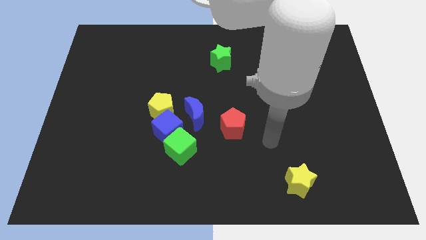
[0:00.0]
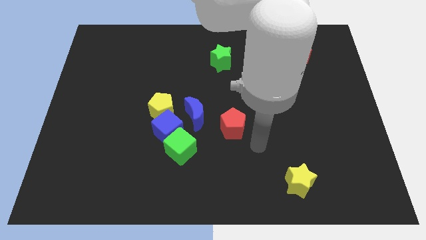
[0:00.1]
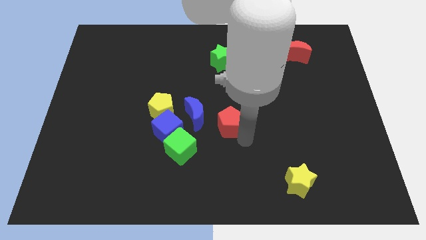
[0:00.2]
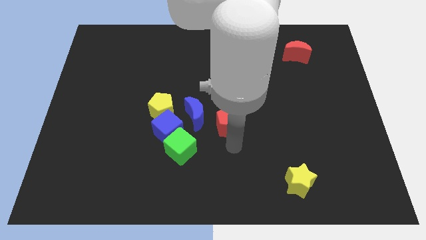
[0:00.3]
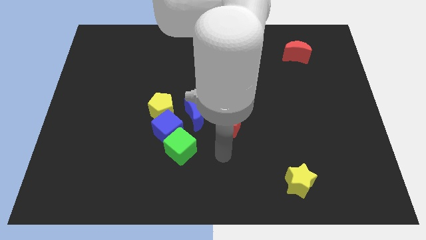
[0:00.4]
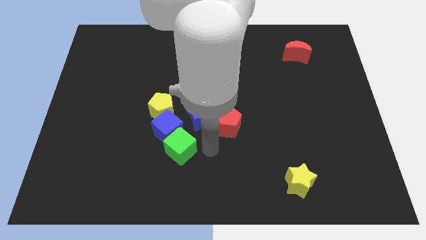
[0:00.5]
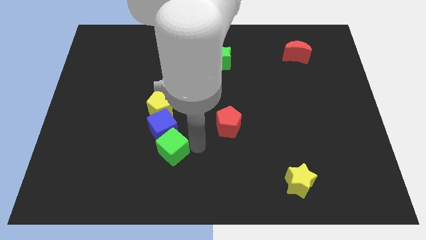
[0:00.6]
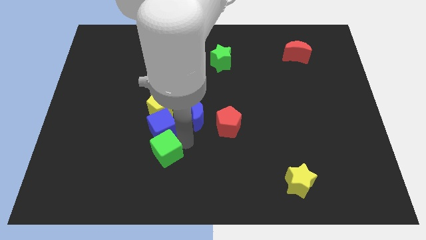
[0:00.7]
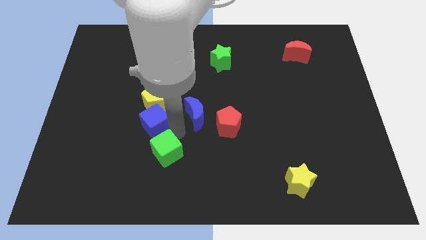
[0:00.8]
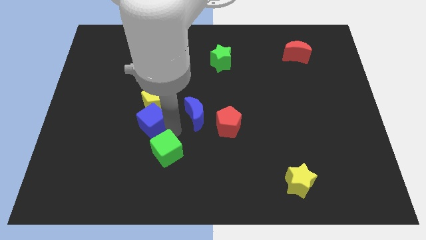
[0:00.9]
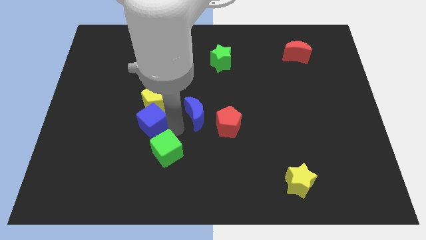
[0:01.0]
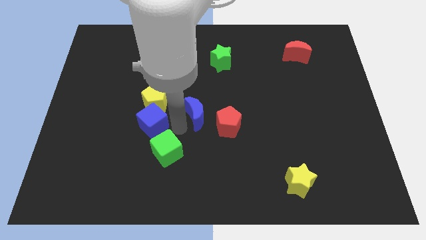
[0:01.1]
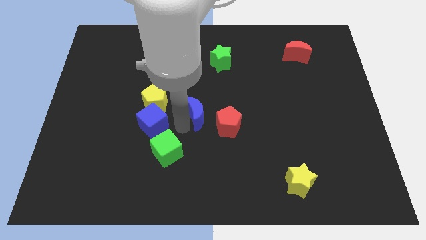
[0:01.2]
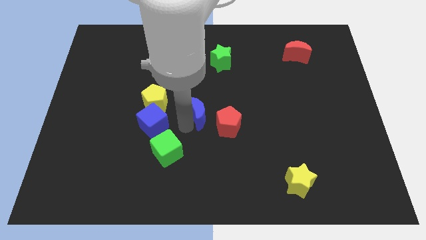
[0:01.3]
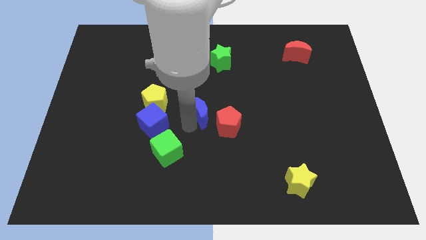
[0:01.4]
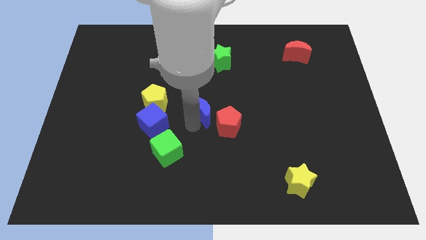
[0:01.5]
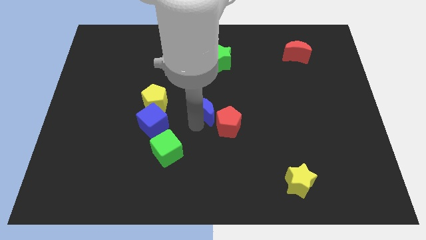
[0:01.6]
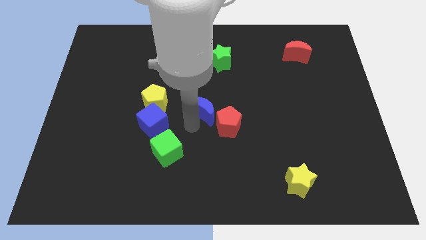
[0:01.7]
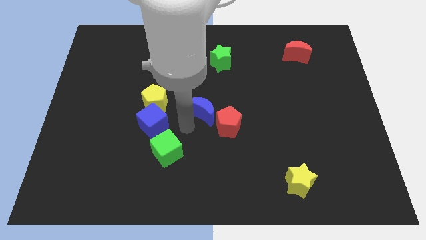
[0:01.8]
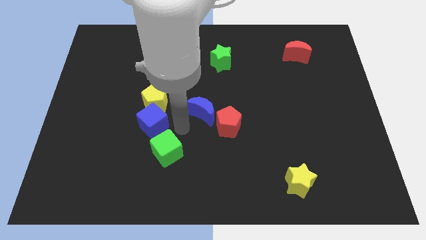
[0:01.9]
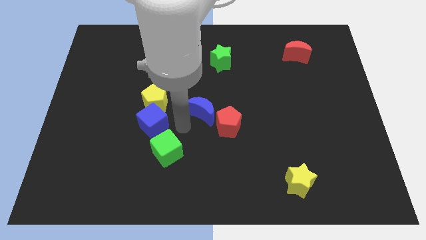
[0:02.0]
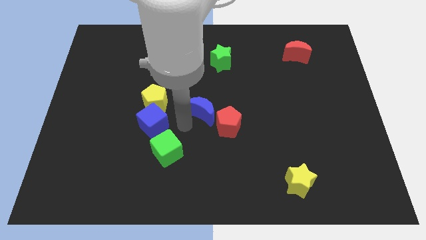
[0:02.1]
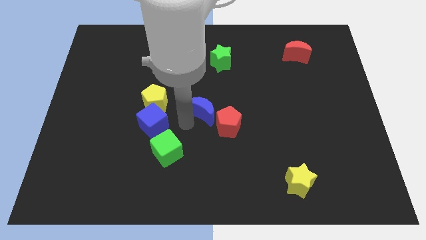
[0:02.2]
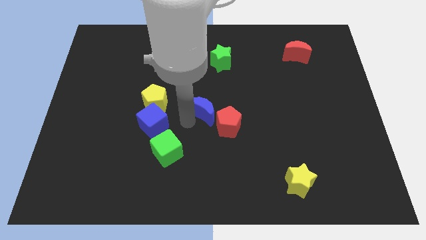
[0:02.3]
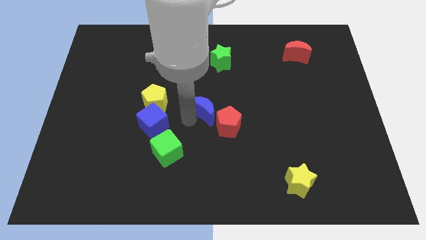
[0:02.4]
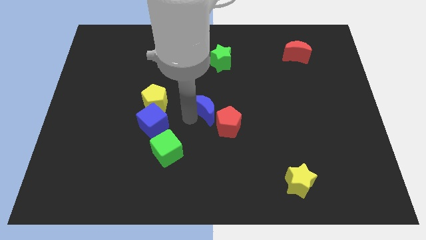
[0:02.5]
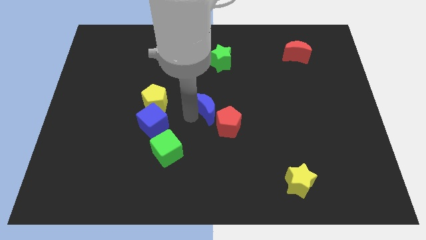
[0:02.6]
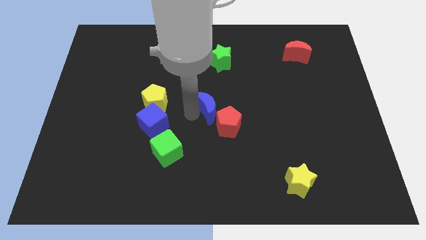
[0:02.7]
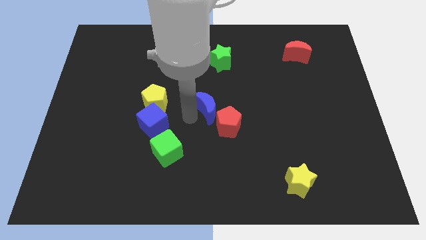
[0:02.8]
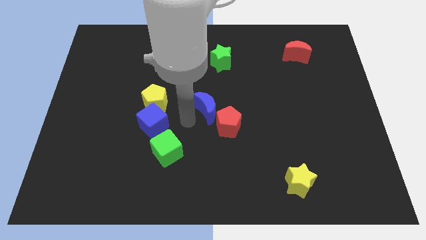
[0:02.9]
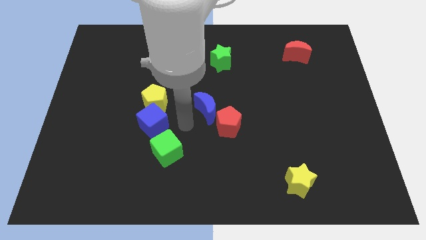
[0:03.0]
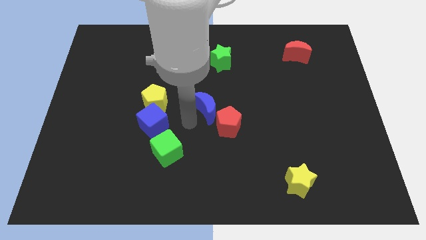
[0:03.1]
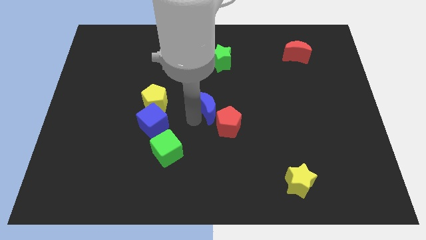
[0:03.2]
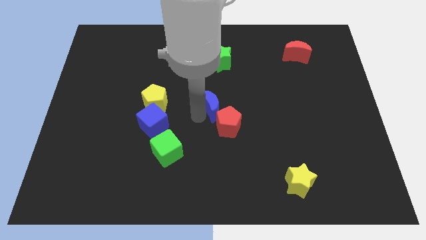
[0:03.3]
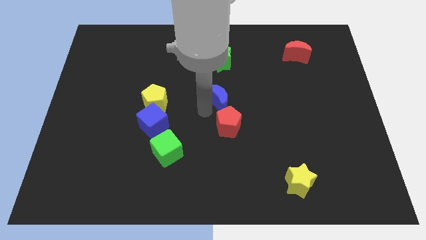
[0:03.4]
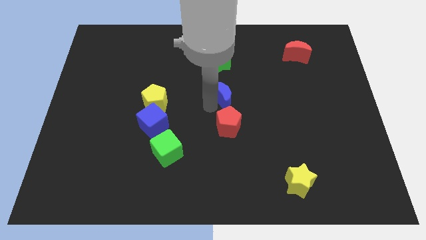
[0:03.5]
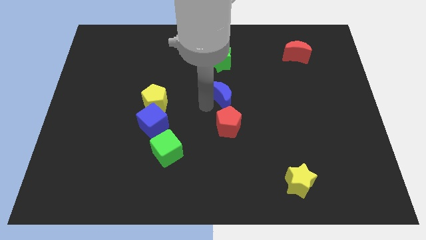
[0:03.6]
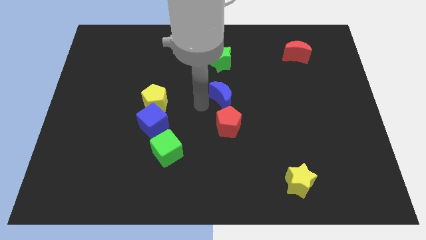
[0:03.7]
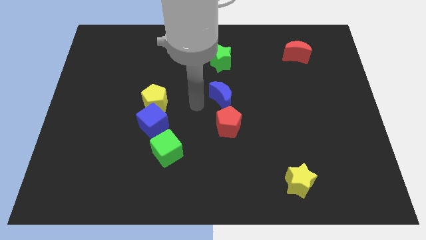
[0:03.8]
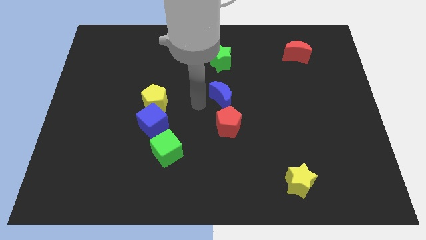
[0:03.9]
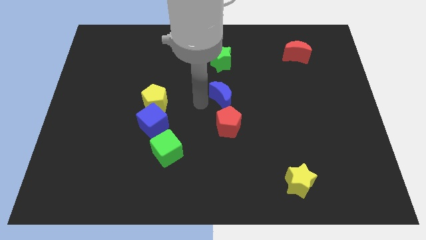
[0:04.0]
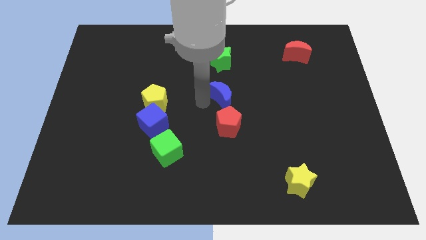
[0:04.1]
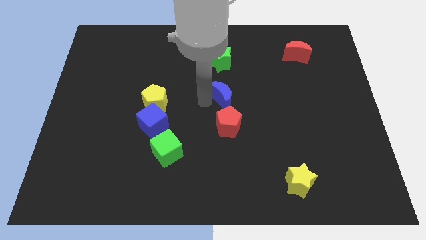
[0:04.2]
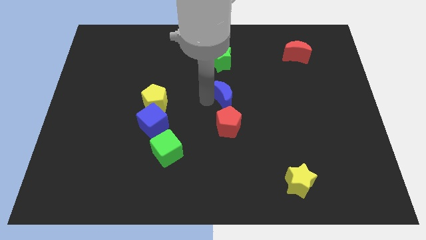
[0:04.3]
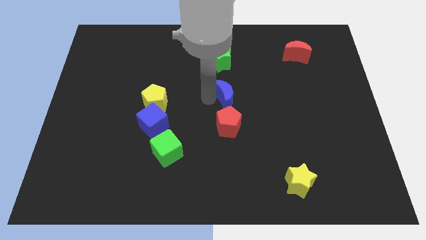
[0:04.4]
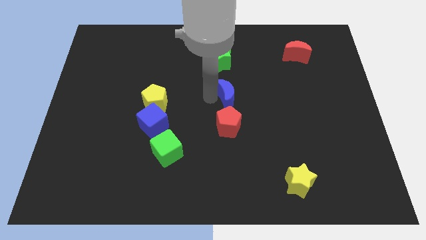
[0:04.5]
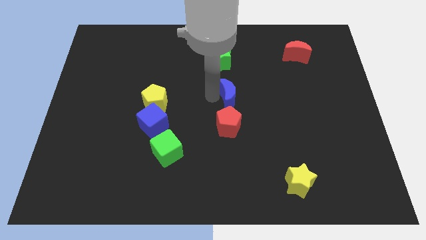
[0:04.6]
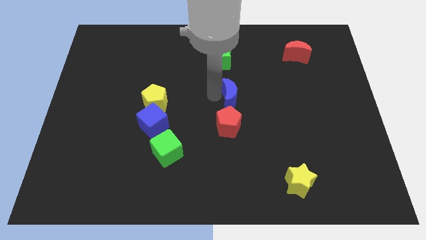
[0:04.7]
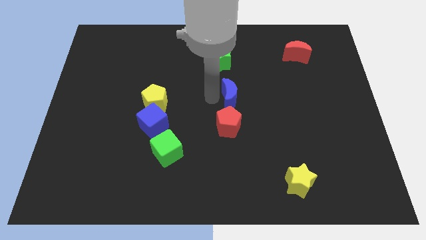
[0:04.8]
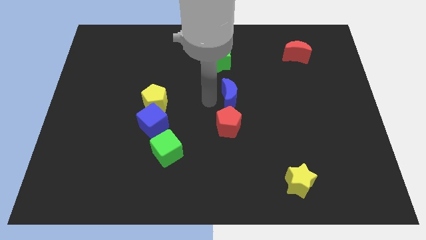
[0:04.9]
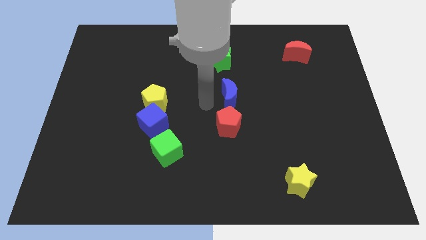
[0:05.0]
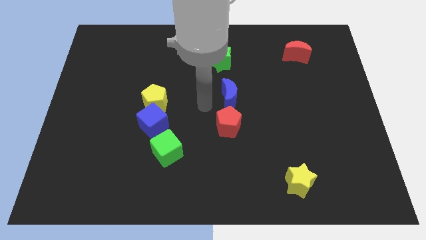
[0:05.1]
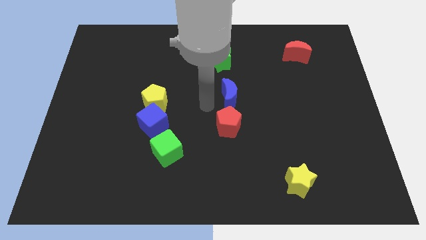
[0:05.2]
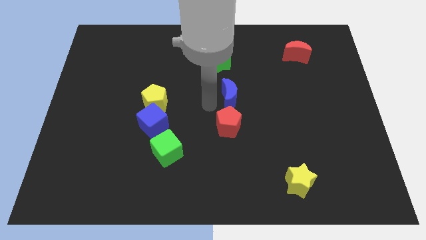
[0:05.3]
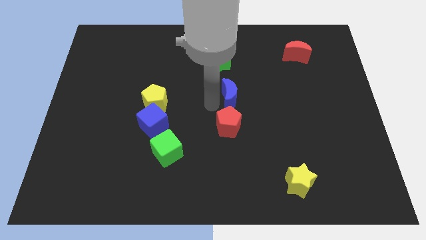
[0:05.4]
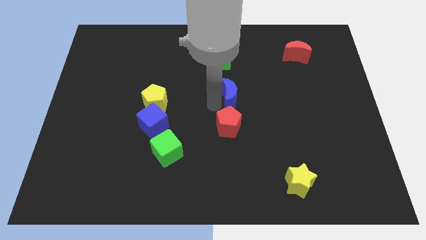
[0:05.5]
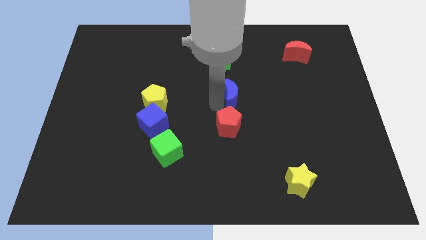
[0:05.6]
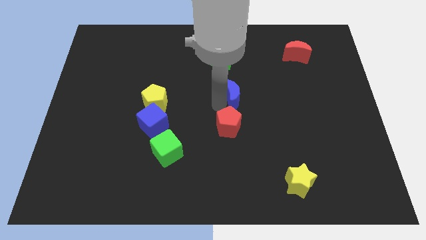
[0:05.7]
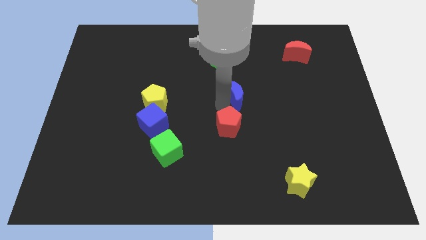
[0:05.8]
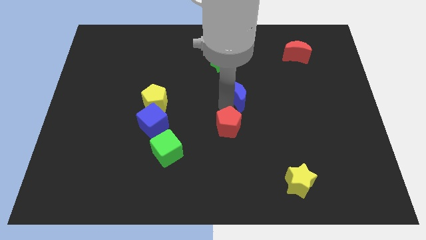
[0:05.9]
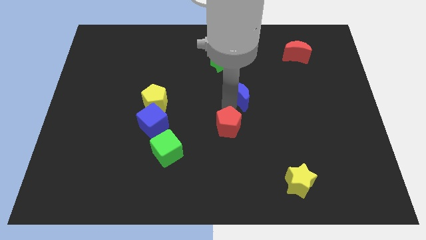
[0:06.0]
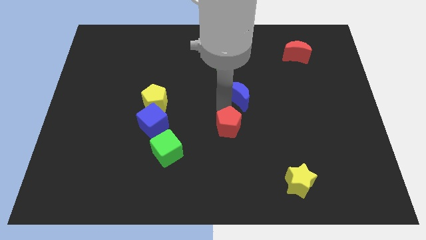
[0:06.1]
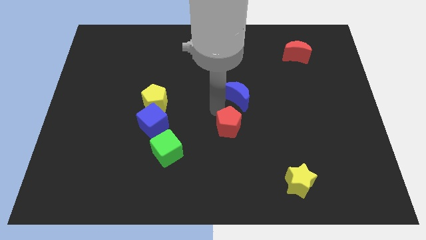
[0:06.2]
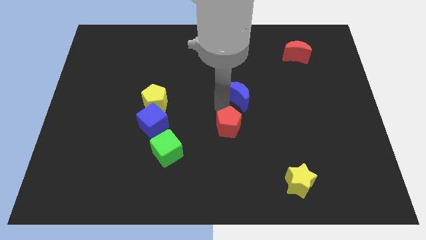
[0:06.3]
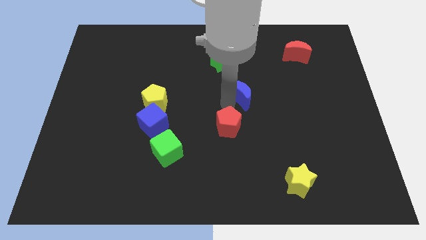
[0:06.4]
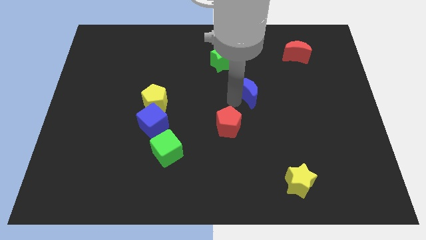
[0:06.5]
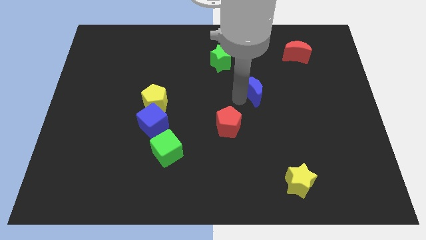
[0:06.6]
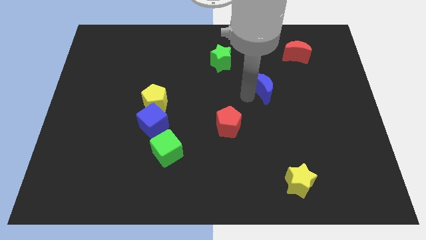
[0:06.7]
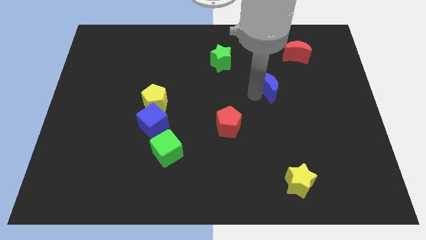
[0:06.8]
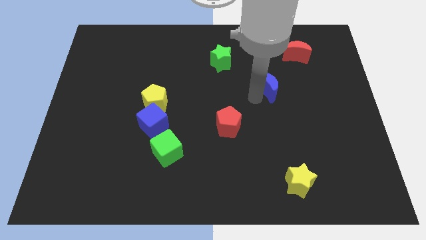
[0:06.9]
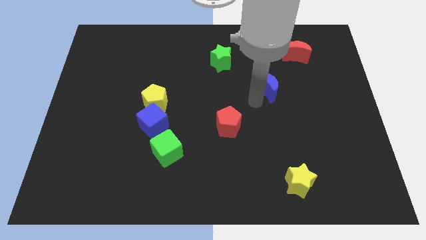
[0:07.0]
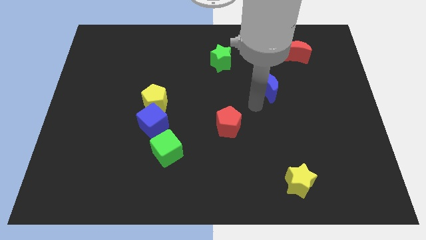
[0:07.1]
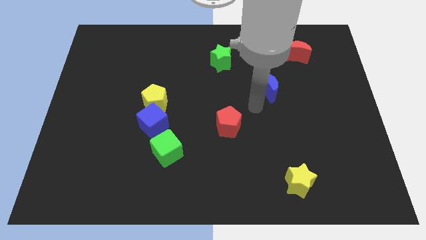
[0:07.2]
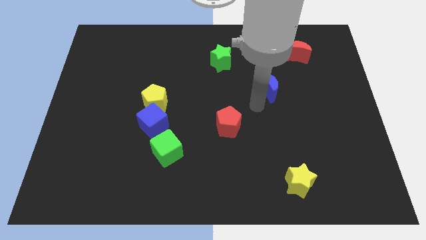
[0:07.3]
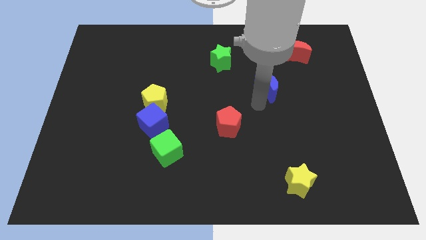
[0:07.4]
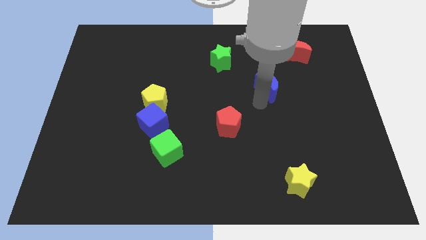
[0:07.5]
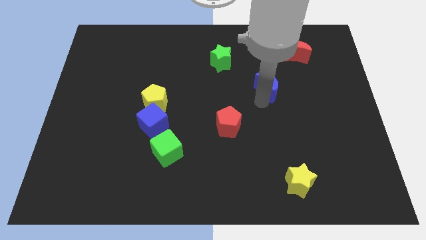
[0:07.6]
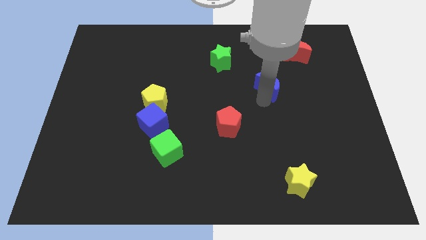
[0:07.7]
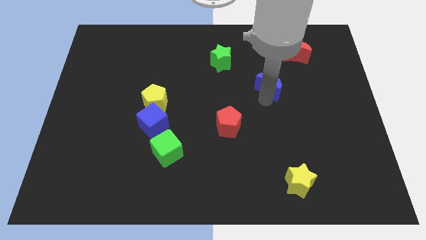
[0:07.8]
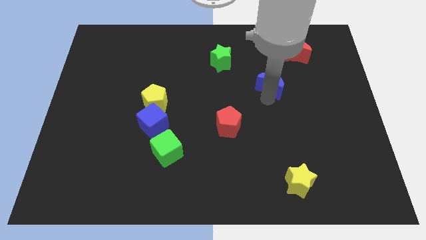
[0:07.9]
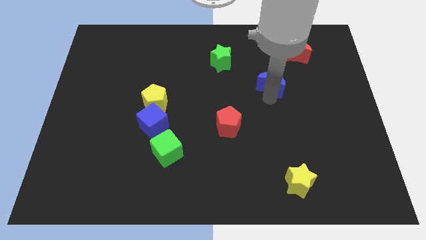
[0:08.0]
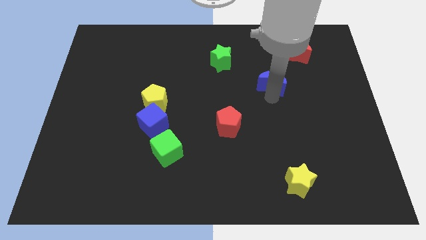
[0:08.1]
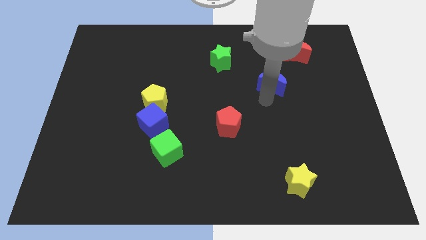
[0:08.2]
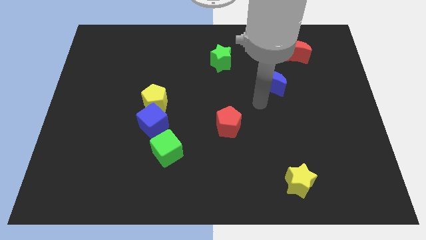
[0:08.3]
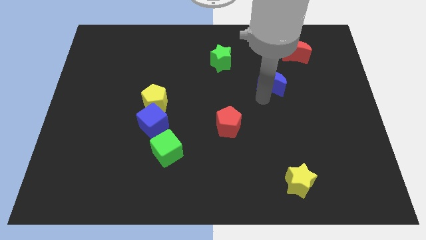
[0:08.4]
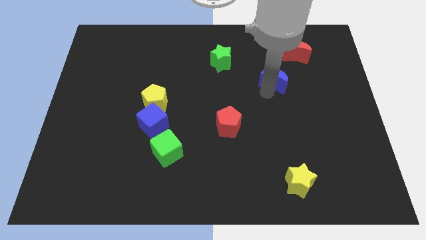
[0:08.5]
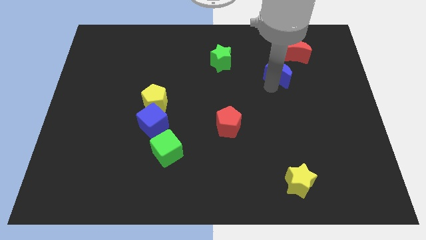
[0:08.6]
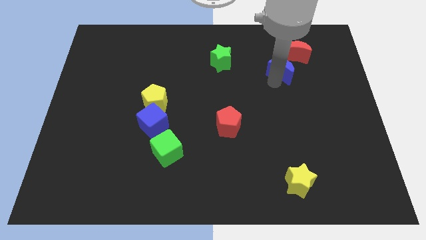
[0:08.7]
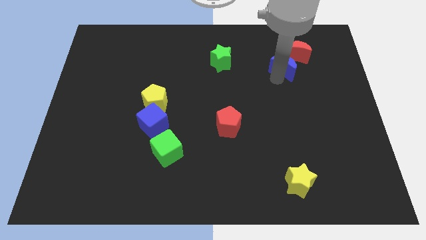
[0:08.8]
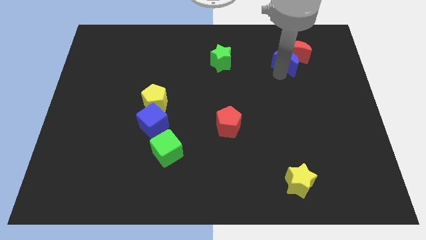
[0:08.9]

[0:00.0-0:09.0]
push the blue moon close to the red moon
